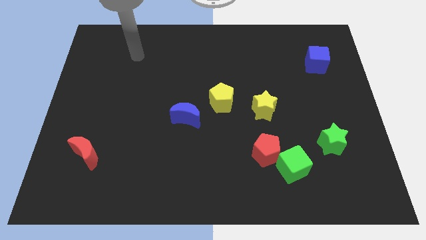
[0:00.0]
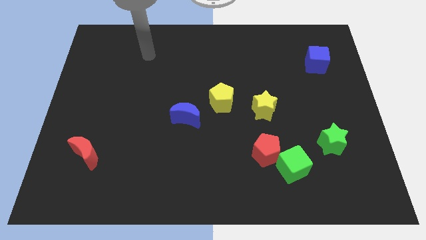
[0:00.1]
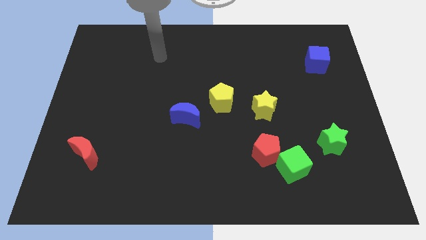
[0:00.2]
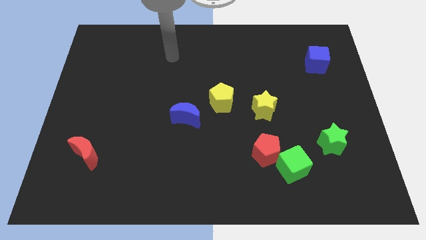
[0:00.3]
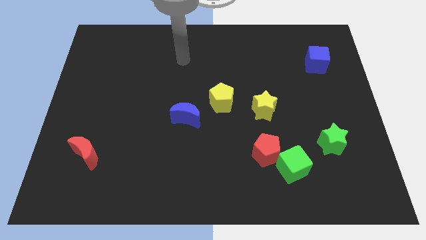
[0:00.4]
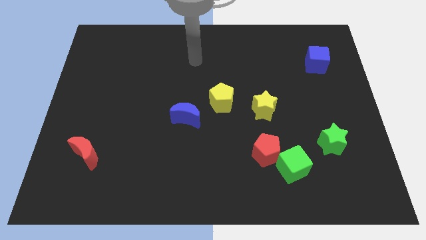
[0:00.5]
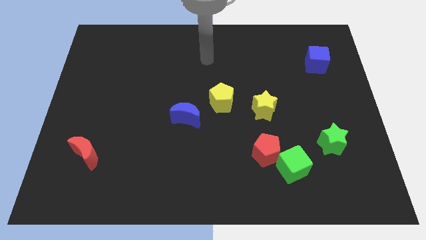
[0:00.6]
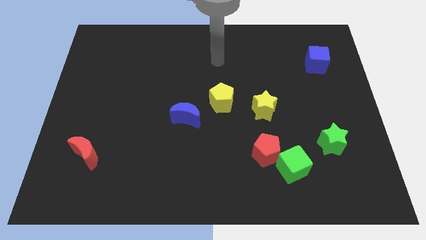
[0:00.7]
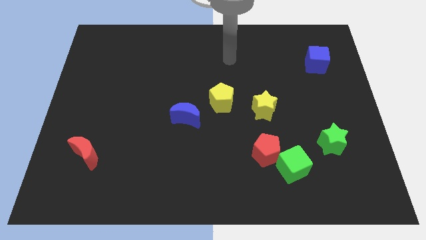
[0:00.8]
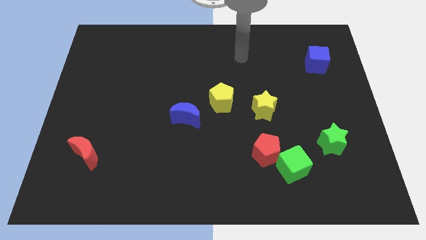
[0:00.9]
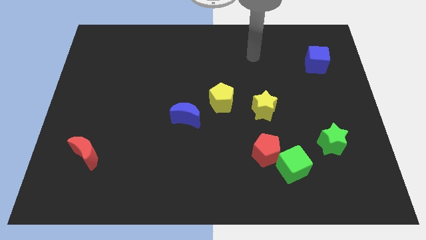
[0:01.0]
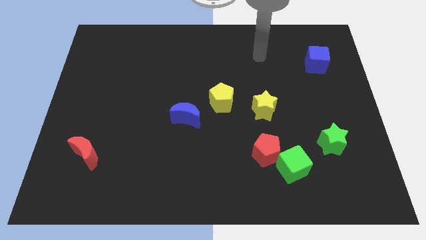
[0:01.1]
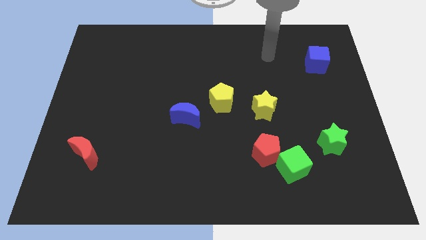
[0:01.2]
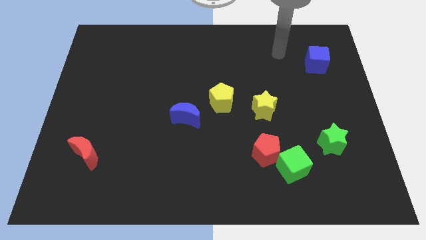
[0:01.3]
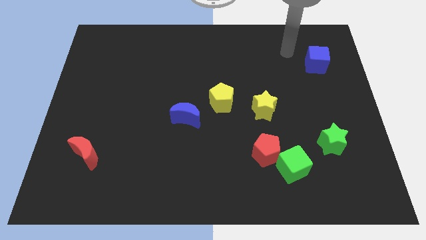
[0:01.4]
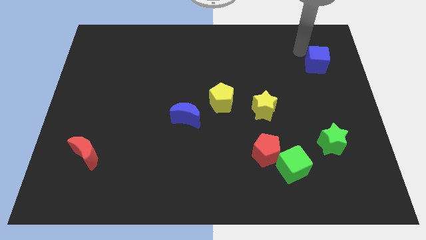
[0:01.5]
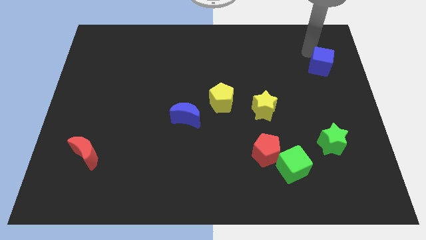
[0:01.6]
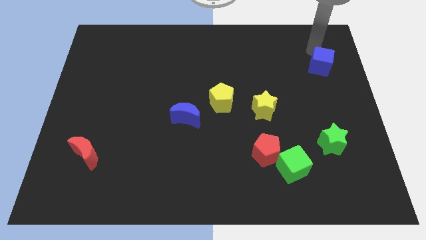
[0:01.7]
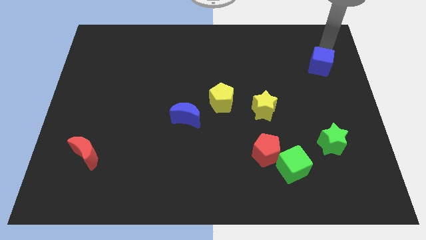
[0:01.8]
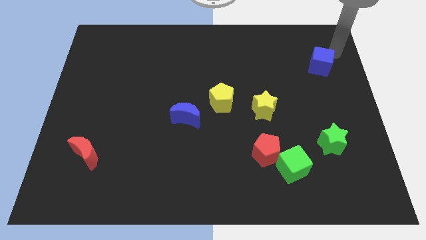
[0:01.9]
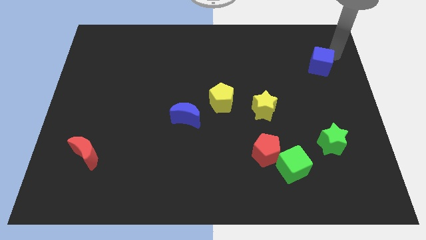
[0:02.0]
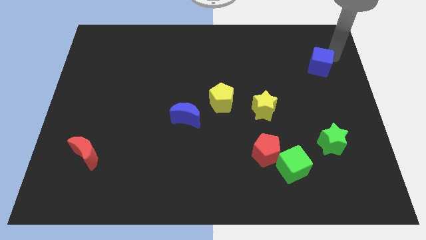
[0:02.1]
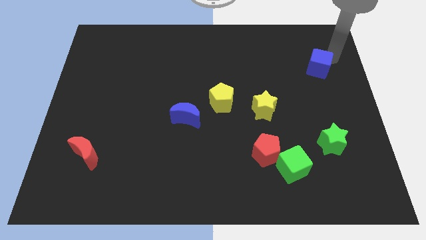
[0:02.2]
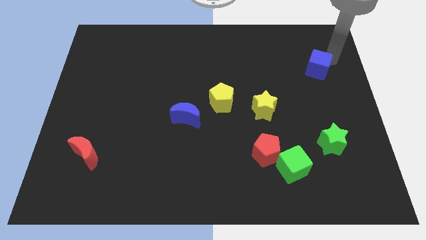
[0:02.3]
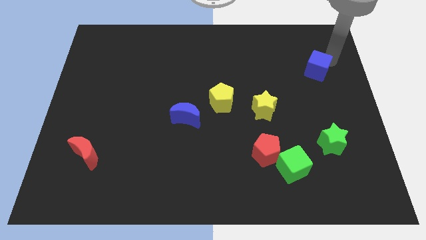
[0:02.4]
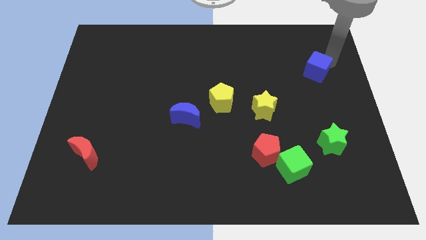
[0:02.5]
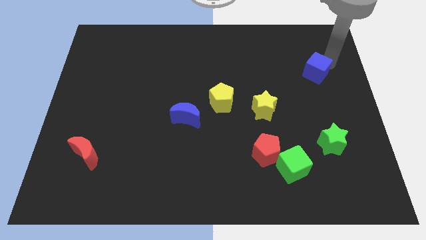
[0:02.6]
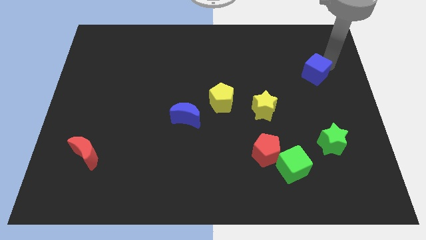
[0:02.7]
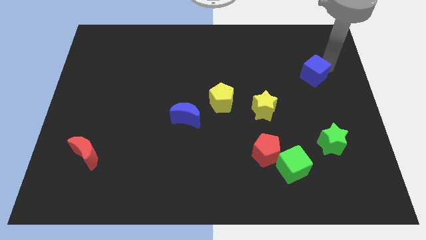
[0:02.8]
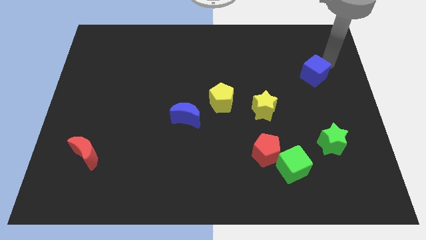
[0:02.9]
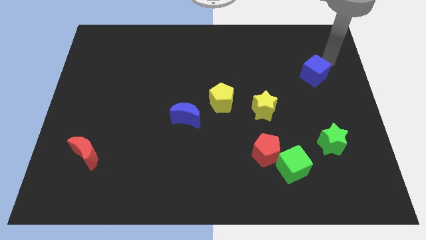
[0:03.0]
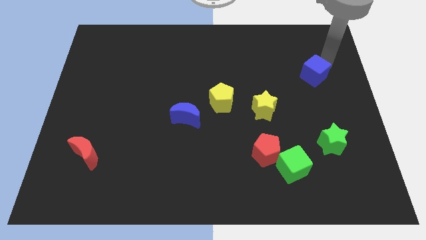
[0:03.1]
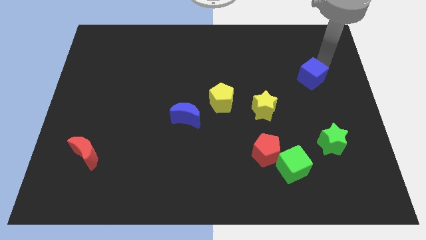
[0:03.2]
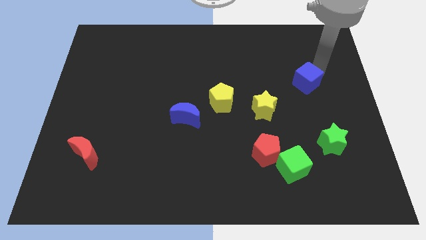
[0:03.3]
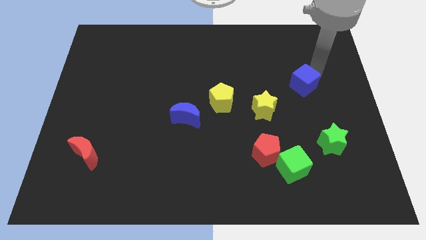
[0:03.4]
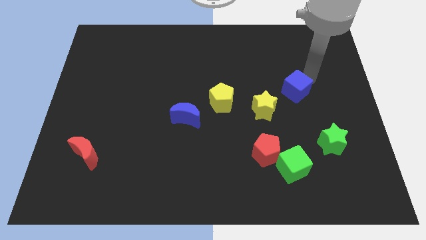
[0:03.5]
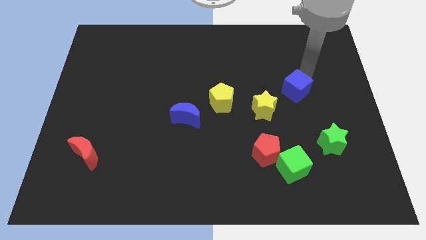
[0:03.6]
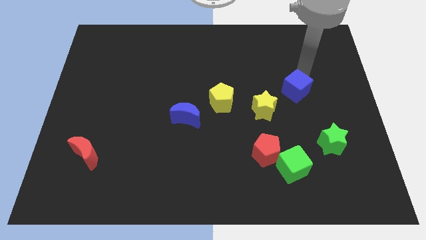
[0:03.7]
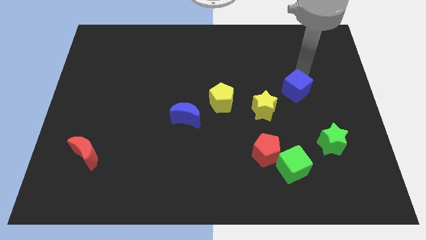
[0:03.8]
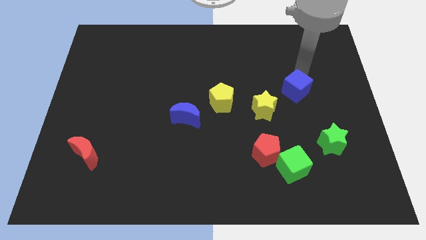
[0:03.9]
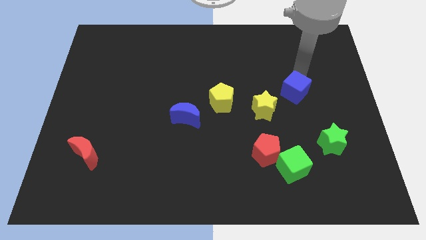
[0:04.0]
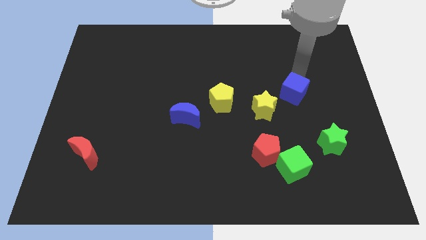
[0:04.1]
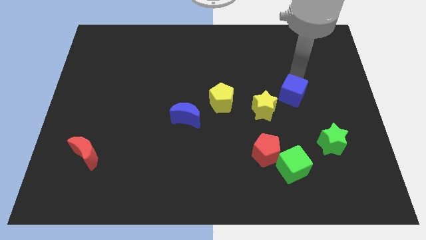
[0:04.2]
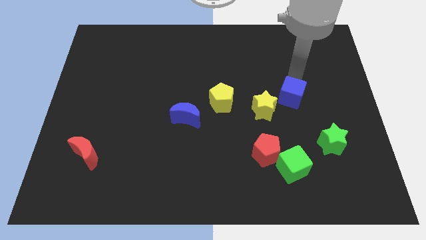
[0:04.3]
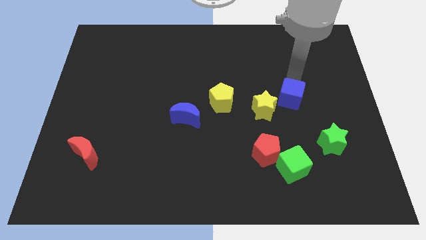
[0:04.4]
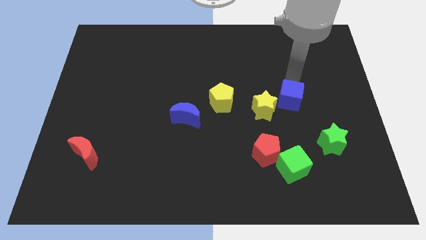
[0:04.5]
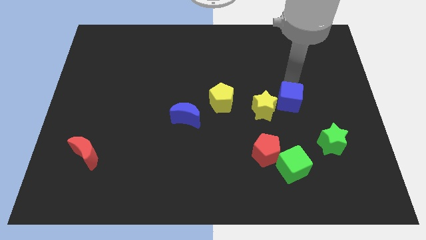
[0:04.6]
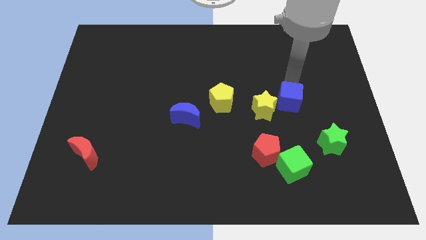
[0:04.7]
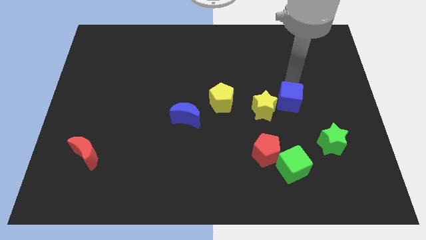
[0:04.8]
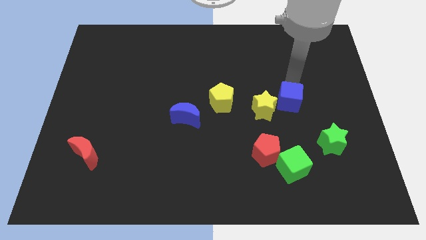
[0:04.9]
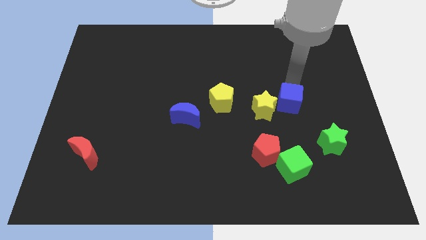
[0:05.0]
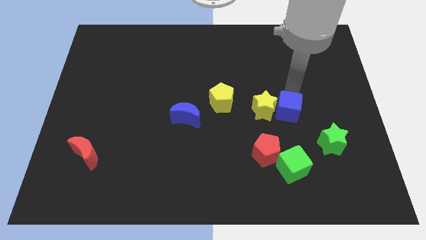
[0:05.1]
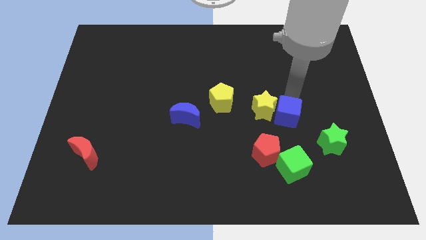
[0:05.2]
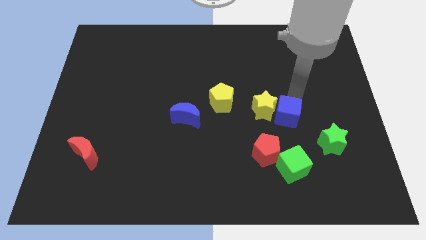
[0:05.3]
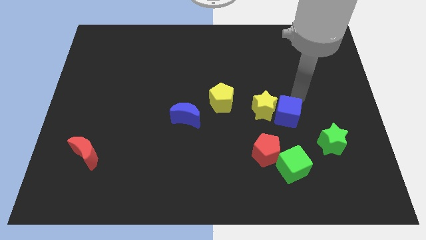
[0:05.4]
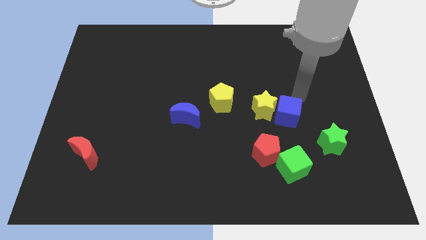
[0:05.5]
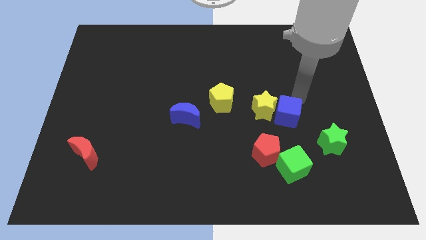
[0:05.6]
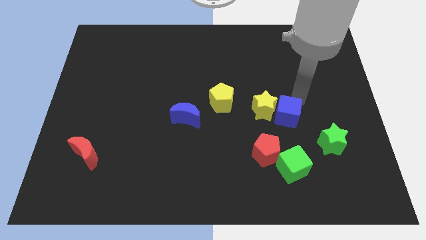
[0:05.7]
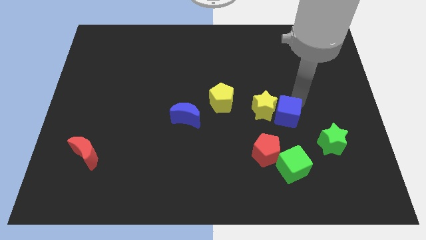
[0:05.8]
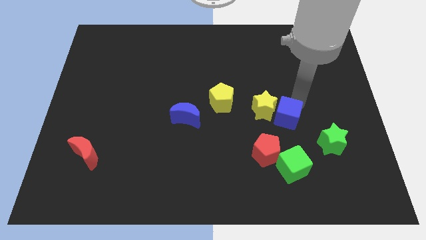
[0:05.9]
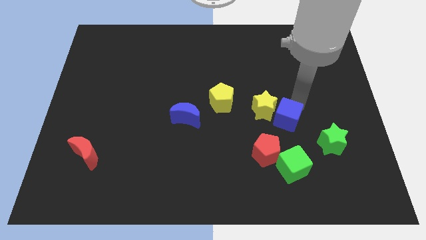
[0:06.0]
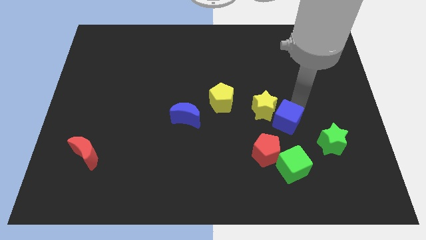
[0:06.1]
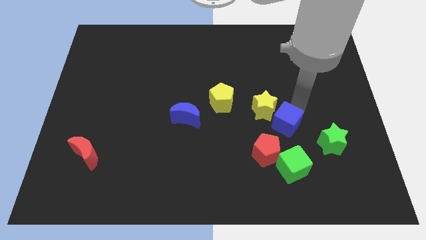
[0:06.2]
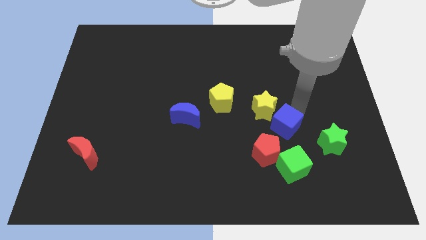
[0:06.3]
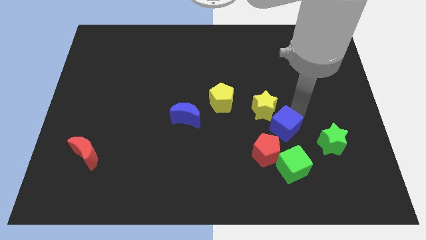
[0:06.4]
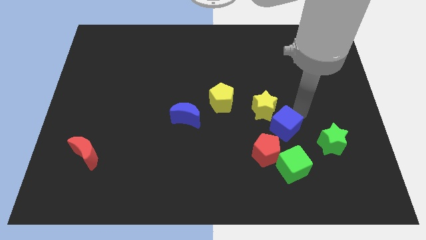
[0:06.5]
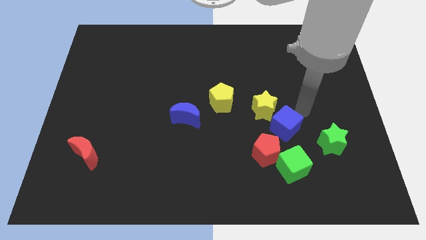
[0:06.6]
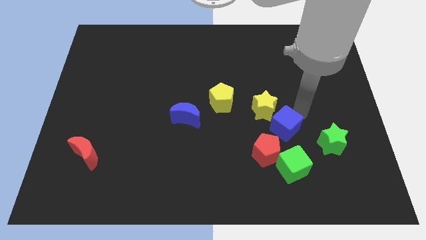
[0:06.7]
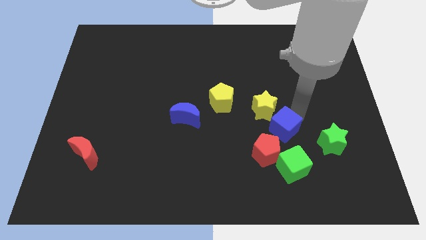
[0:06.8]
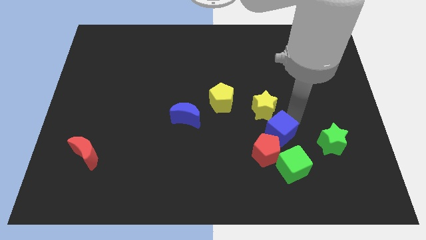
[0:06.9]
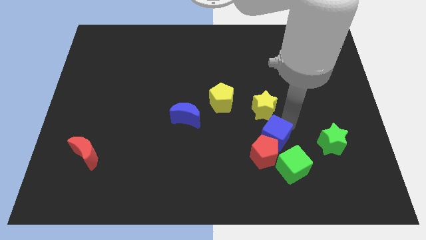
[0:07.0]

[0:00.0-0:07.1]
slide the blue cube to the red pentagon

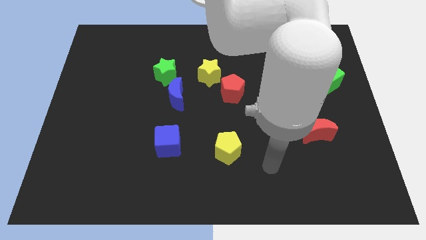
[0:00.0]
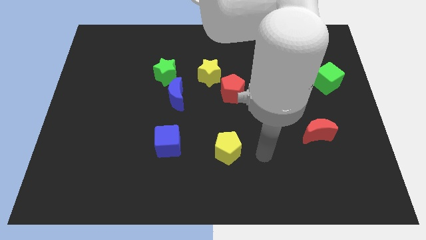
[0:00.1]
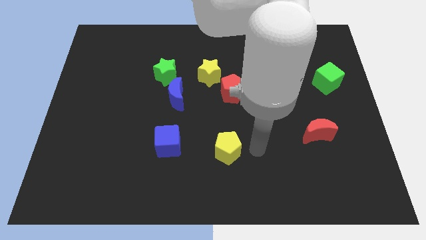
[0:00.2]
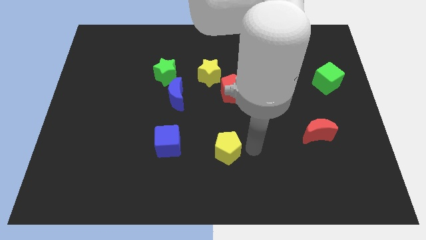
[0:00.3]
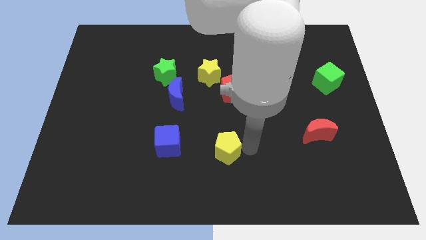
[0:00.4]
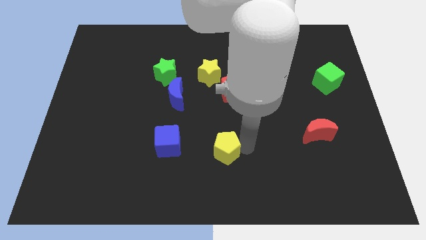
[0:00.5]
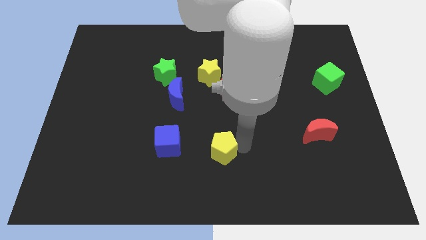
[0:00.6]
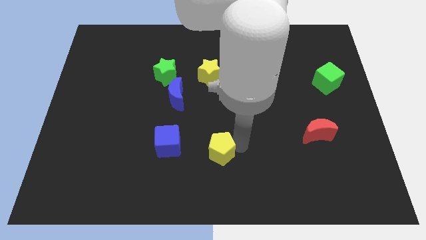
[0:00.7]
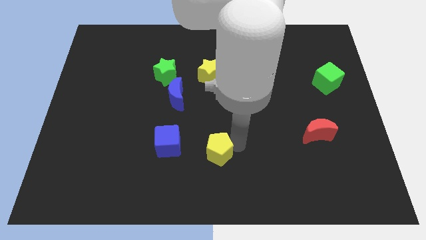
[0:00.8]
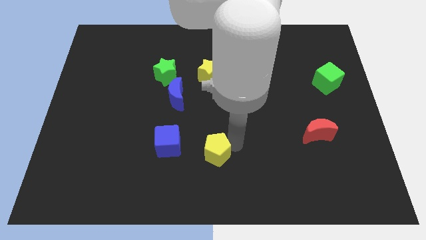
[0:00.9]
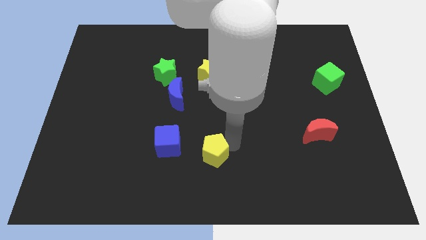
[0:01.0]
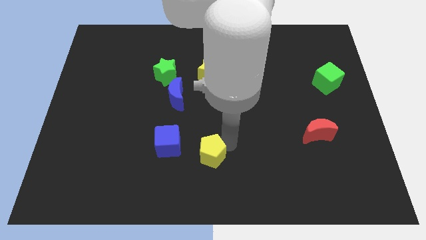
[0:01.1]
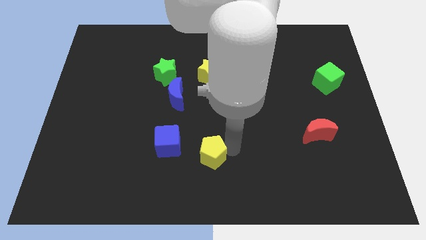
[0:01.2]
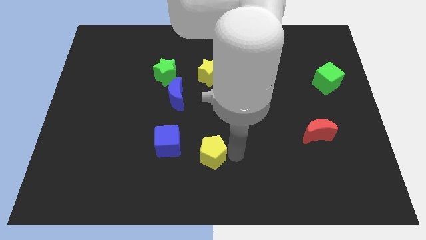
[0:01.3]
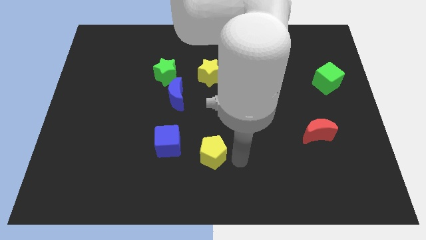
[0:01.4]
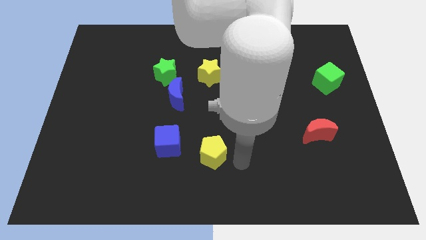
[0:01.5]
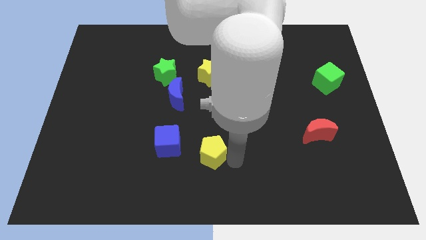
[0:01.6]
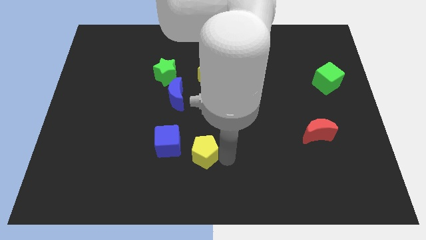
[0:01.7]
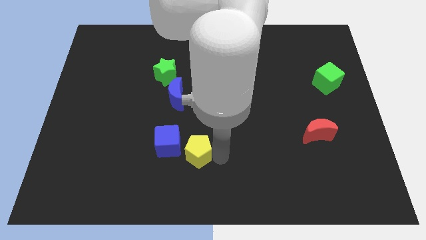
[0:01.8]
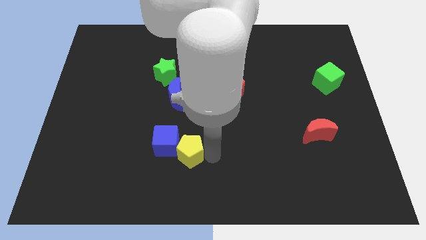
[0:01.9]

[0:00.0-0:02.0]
push the yellow pentagon close to the blue cube
